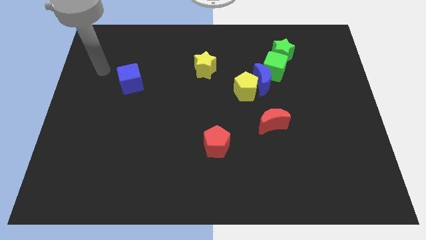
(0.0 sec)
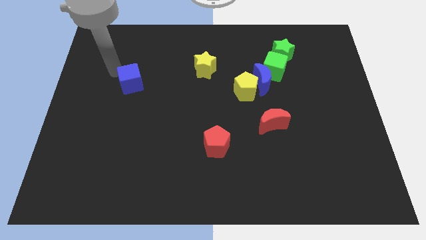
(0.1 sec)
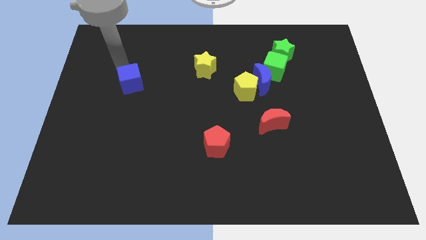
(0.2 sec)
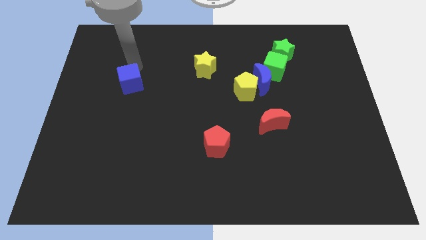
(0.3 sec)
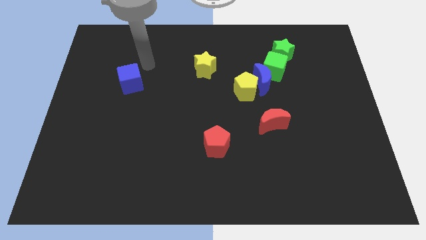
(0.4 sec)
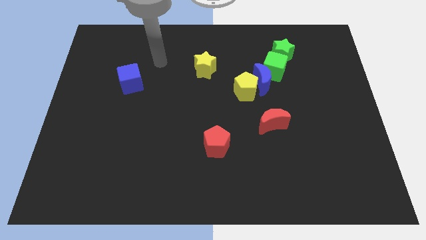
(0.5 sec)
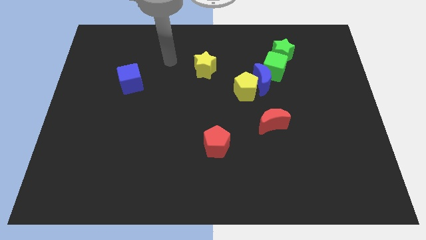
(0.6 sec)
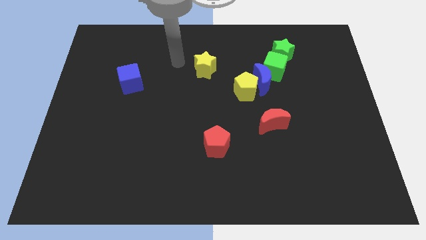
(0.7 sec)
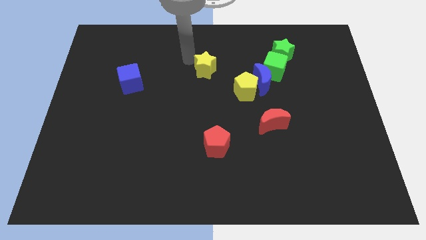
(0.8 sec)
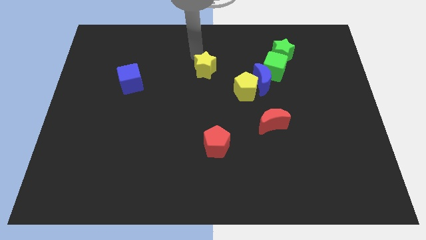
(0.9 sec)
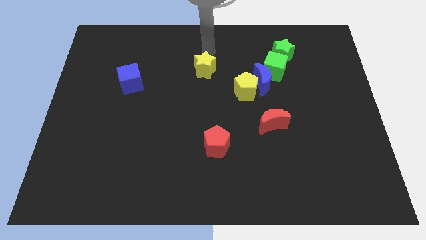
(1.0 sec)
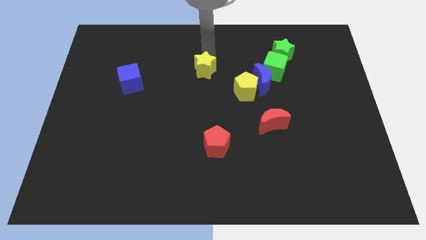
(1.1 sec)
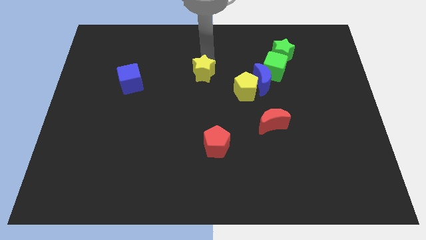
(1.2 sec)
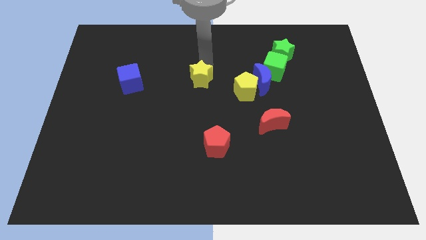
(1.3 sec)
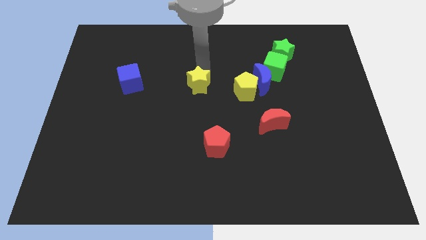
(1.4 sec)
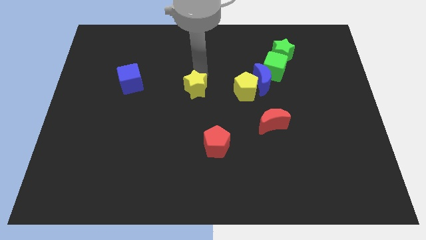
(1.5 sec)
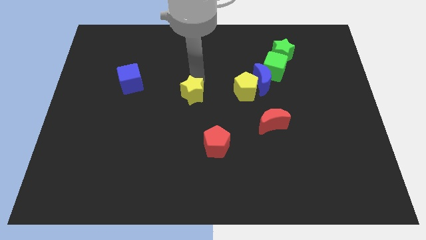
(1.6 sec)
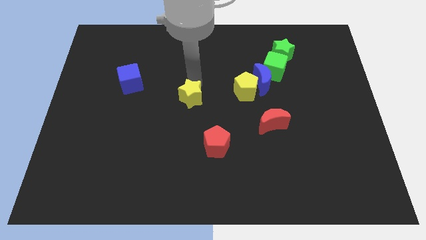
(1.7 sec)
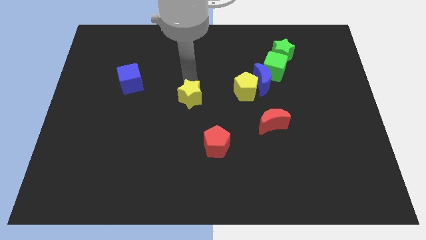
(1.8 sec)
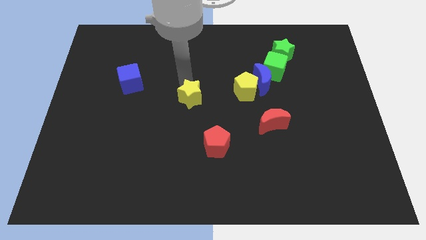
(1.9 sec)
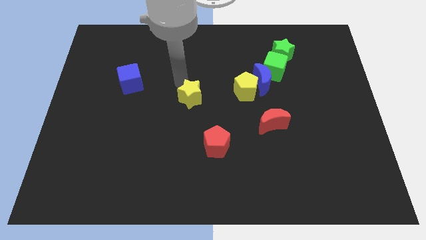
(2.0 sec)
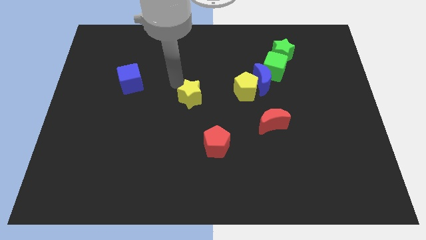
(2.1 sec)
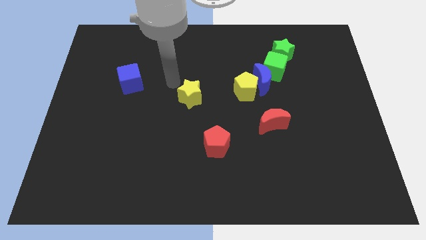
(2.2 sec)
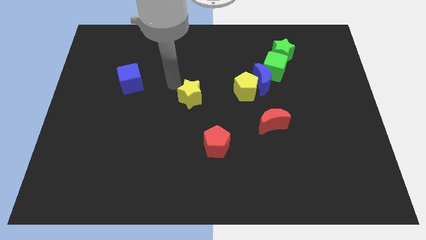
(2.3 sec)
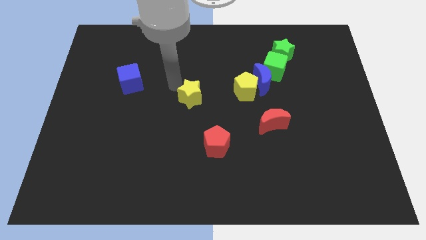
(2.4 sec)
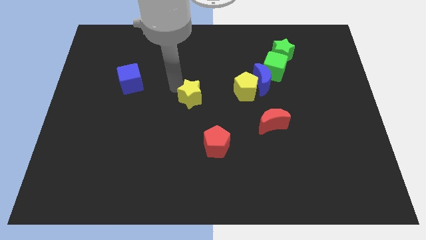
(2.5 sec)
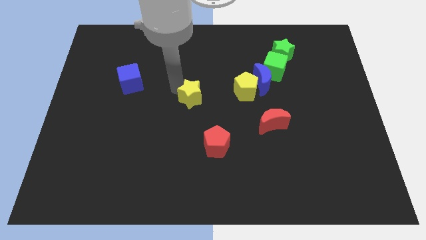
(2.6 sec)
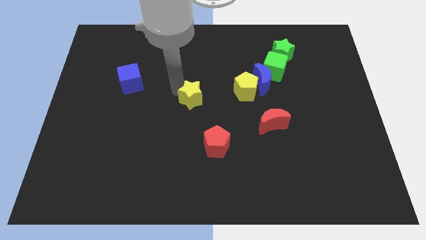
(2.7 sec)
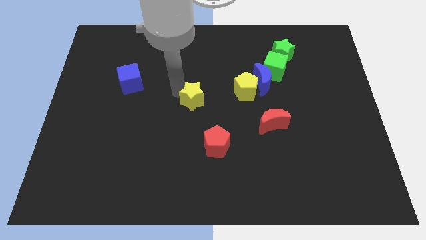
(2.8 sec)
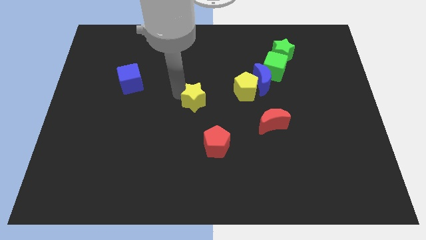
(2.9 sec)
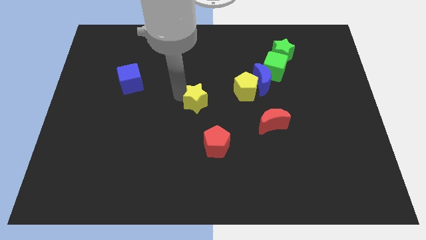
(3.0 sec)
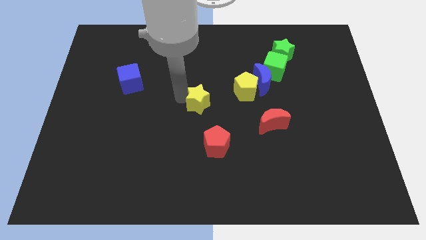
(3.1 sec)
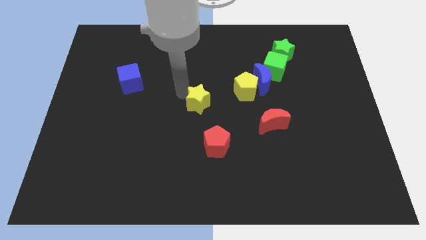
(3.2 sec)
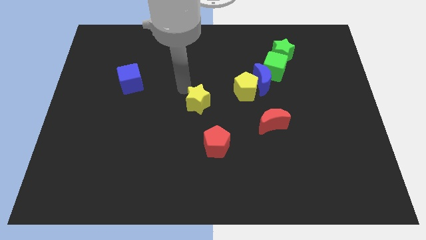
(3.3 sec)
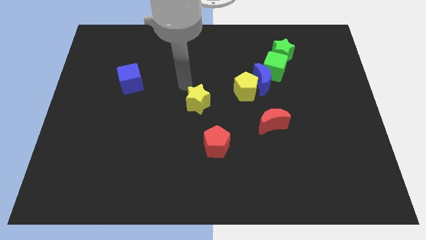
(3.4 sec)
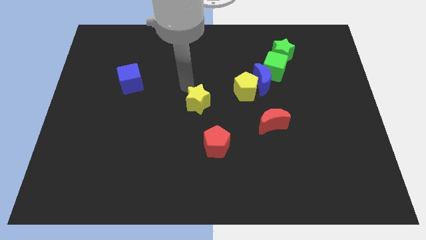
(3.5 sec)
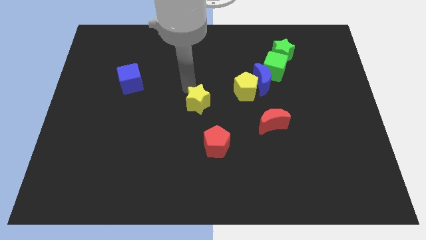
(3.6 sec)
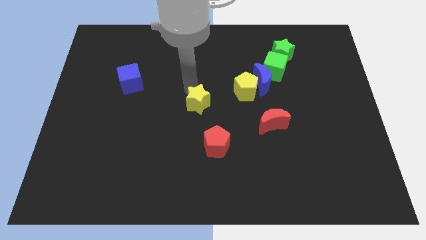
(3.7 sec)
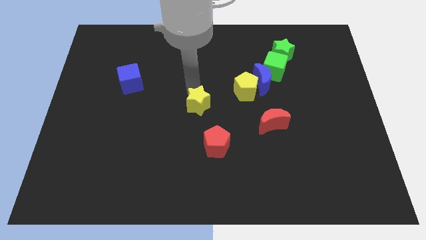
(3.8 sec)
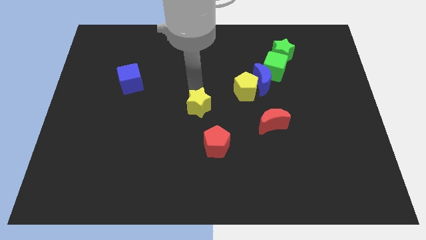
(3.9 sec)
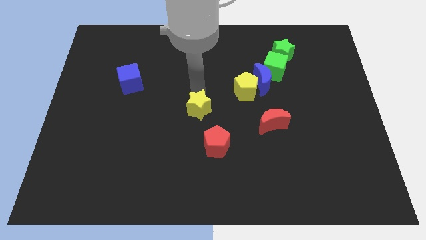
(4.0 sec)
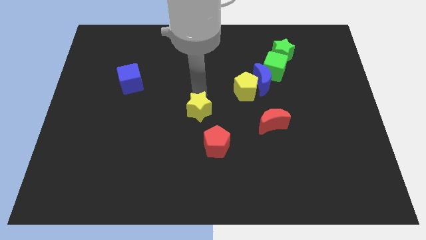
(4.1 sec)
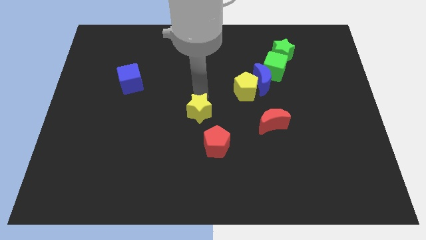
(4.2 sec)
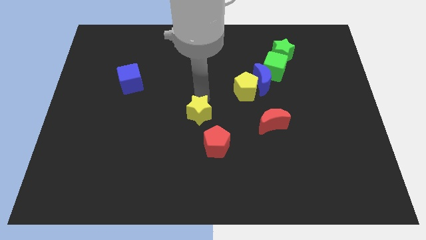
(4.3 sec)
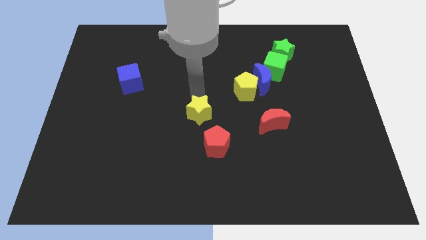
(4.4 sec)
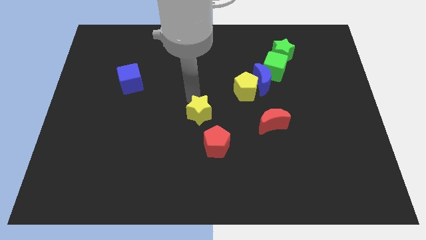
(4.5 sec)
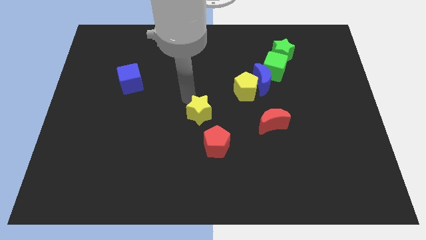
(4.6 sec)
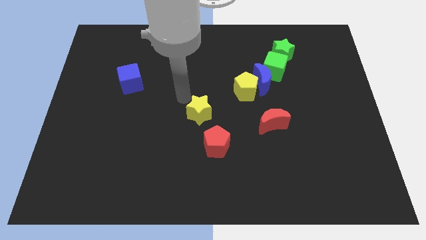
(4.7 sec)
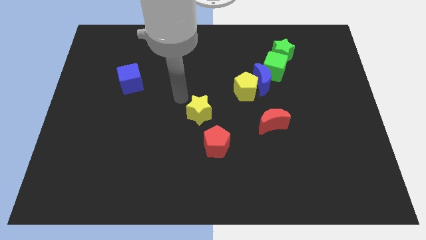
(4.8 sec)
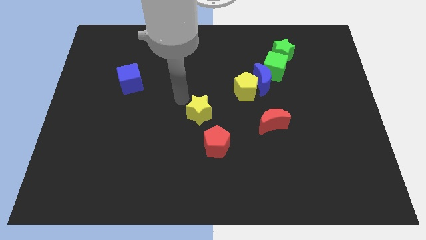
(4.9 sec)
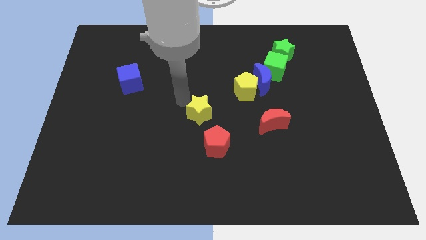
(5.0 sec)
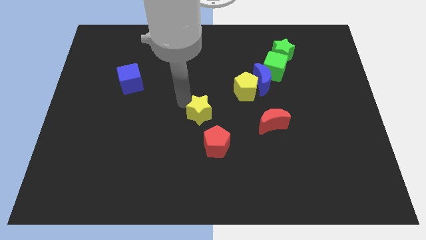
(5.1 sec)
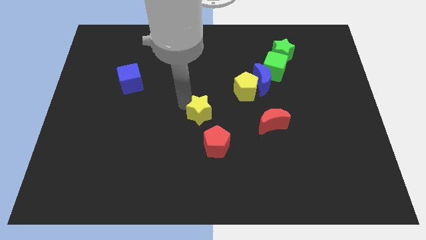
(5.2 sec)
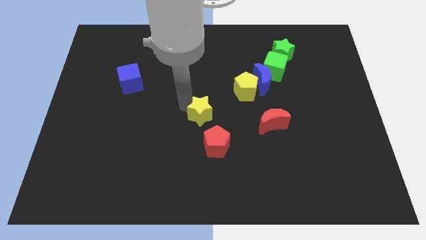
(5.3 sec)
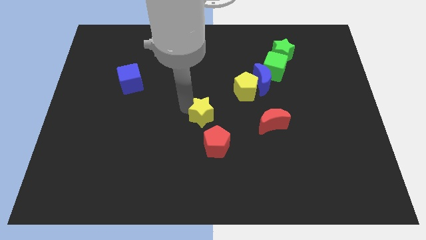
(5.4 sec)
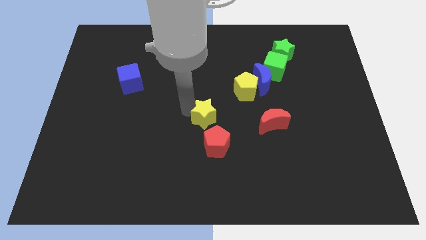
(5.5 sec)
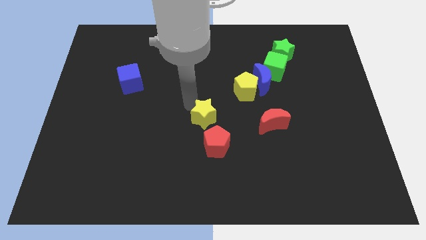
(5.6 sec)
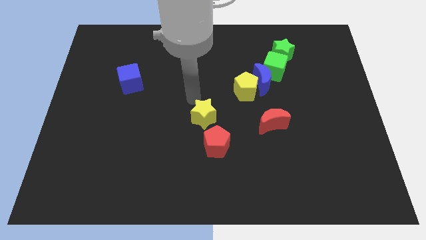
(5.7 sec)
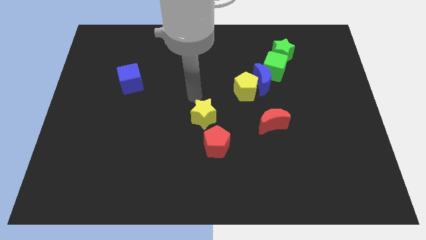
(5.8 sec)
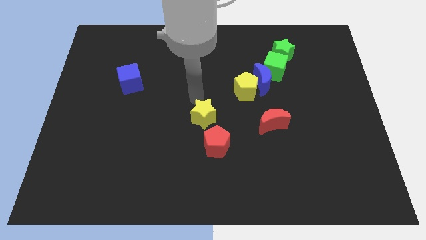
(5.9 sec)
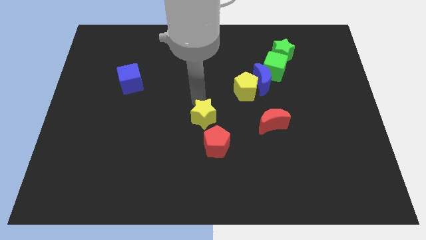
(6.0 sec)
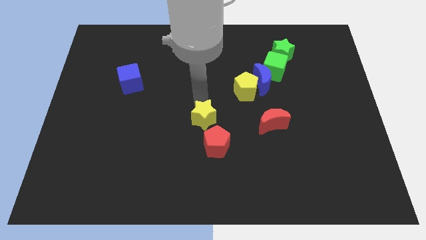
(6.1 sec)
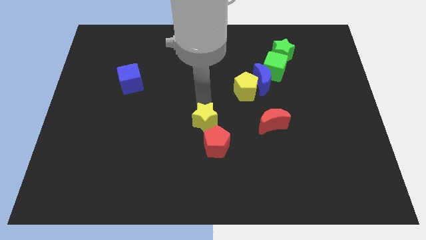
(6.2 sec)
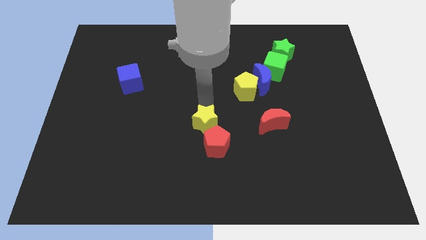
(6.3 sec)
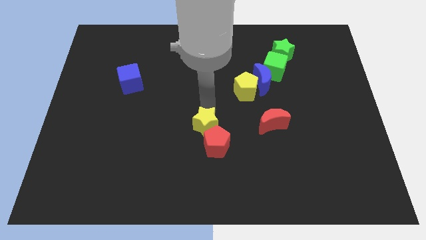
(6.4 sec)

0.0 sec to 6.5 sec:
push the yellow star to the red pentagon

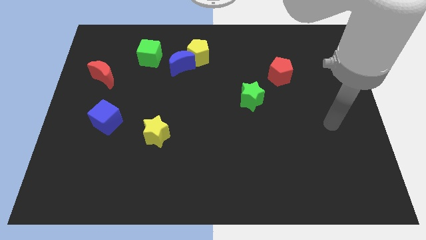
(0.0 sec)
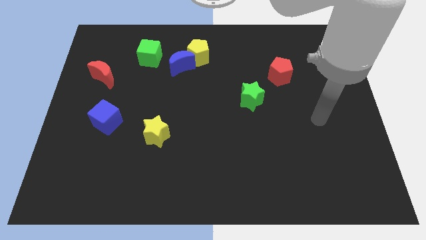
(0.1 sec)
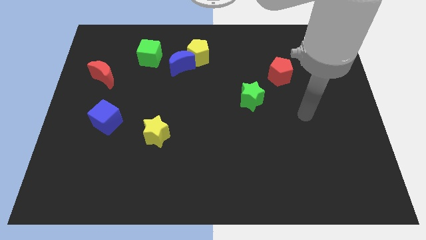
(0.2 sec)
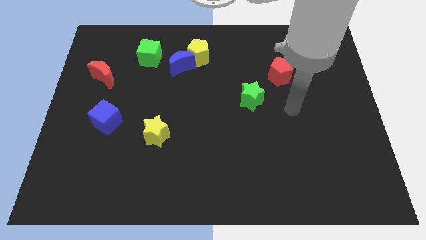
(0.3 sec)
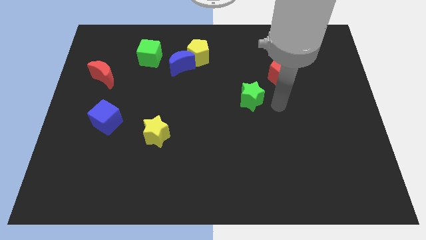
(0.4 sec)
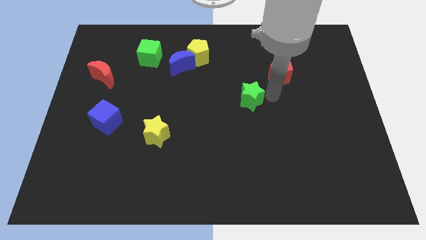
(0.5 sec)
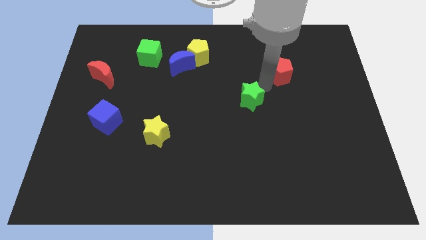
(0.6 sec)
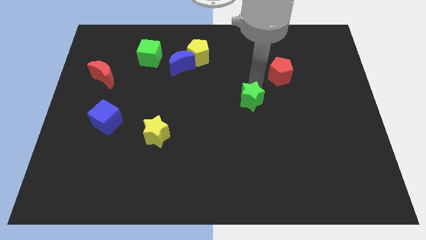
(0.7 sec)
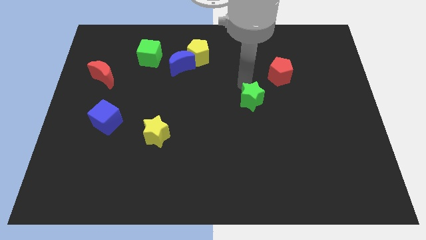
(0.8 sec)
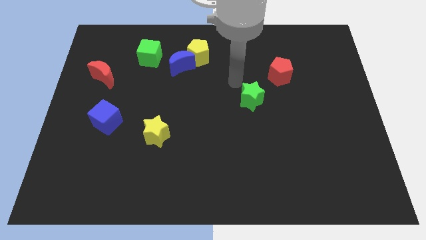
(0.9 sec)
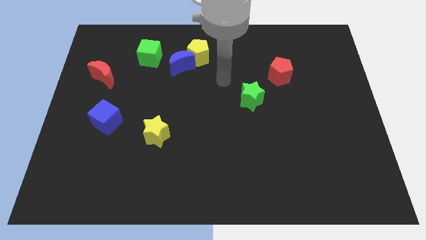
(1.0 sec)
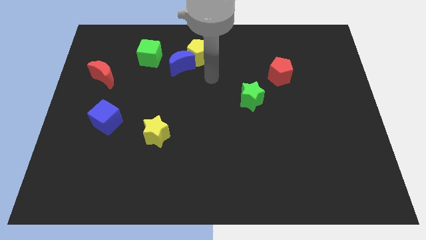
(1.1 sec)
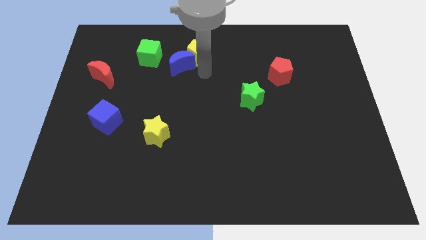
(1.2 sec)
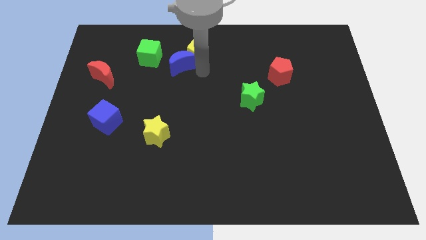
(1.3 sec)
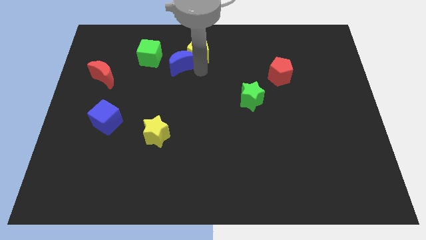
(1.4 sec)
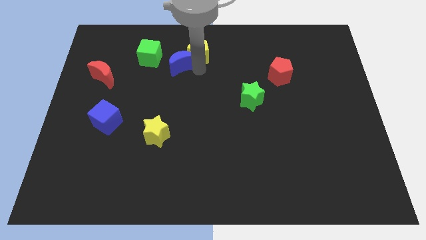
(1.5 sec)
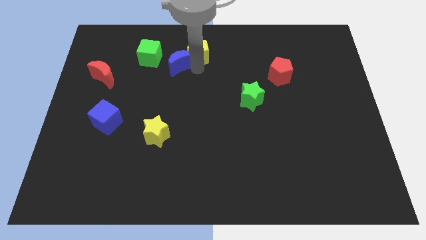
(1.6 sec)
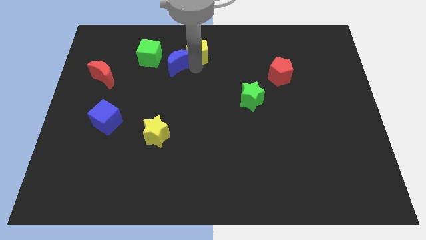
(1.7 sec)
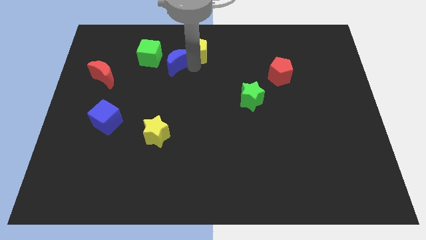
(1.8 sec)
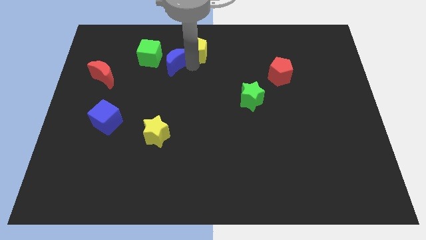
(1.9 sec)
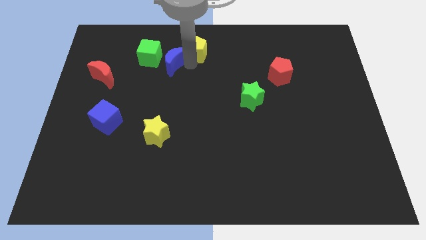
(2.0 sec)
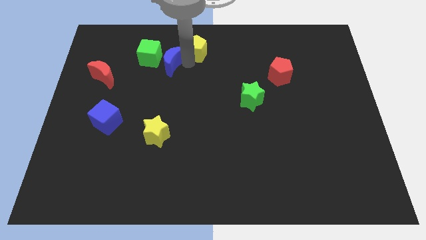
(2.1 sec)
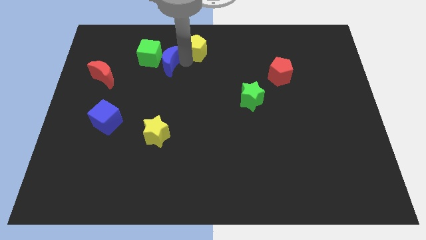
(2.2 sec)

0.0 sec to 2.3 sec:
move the blue moon to the green cube
